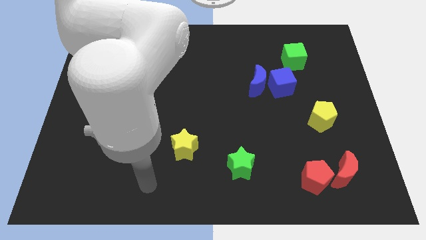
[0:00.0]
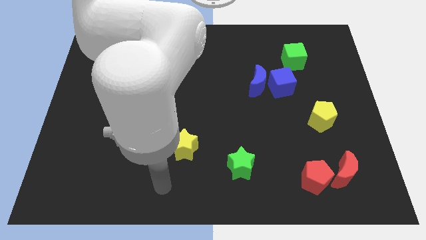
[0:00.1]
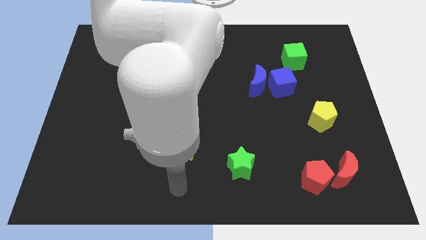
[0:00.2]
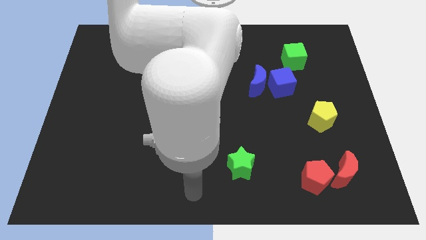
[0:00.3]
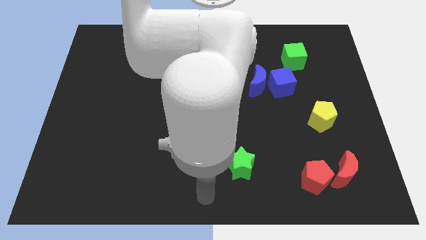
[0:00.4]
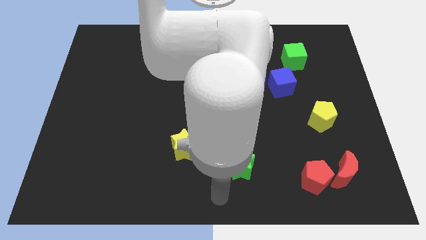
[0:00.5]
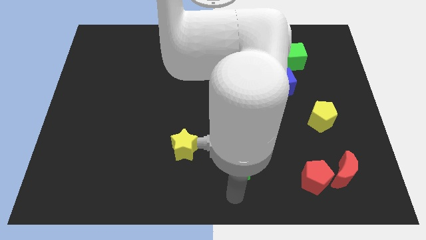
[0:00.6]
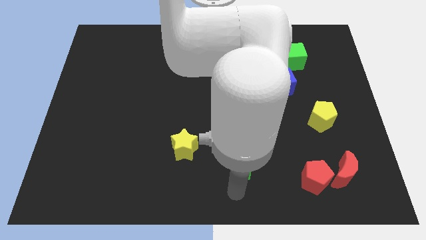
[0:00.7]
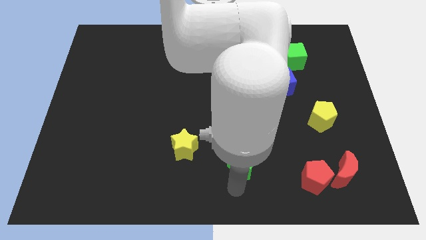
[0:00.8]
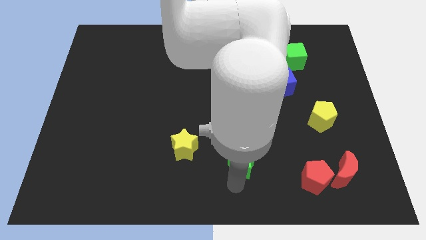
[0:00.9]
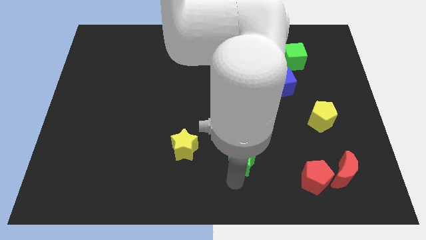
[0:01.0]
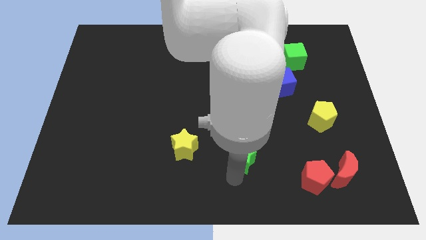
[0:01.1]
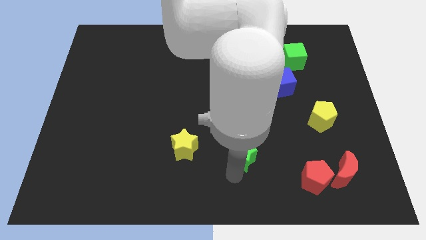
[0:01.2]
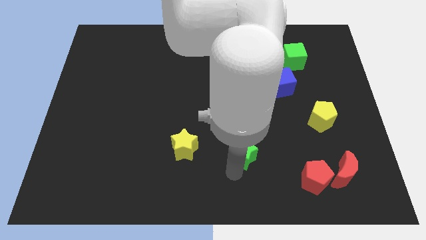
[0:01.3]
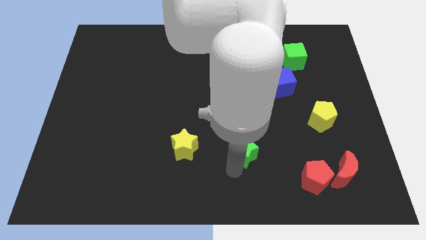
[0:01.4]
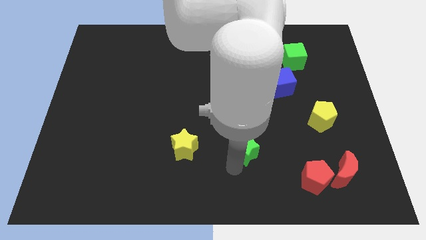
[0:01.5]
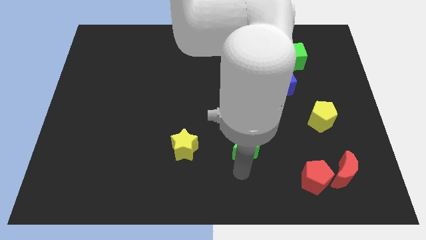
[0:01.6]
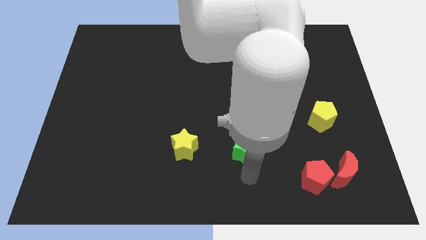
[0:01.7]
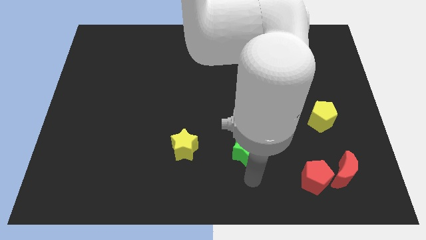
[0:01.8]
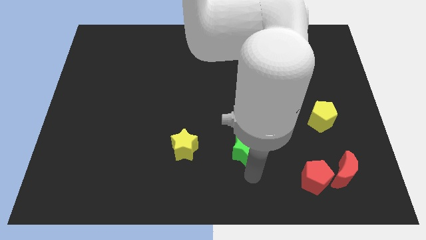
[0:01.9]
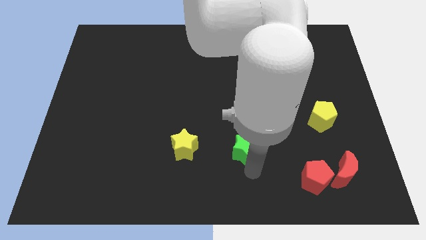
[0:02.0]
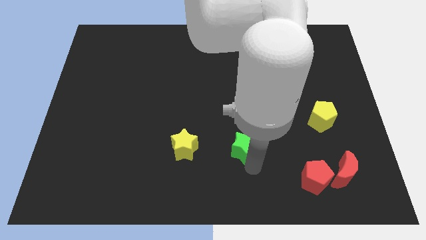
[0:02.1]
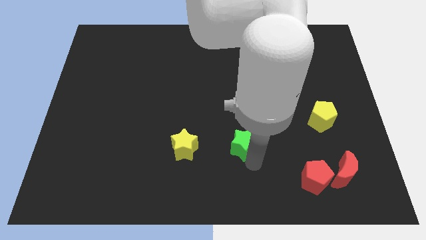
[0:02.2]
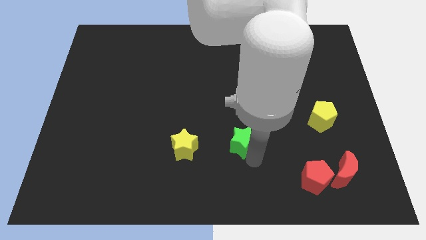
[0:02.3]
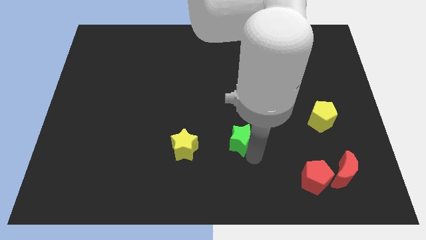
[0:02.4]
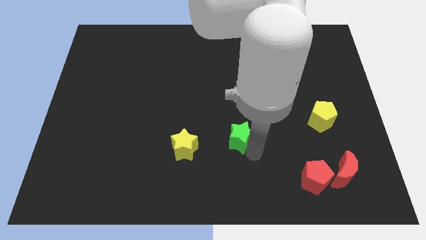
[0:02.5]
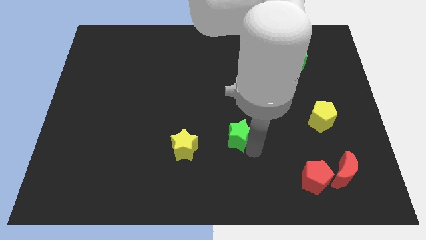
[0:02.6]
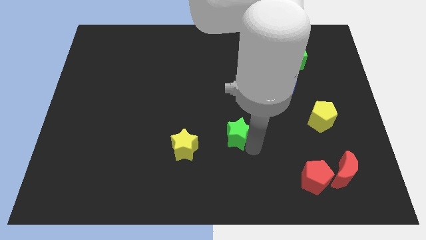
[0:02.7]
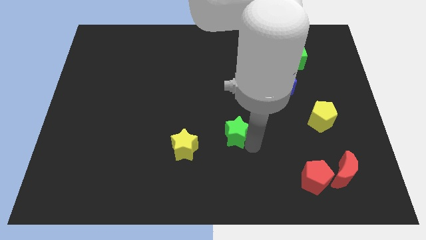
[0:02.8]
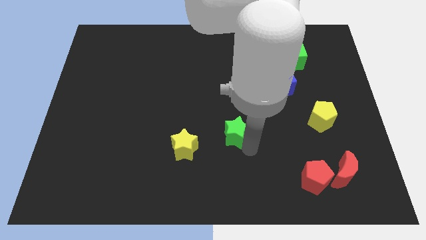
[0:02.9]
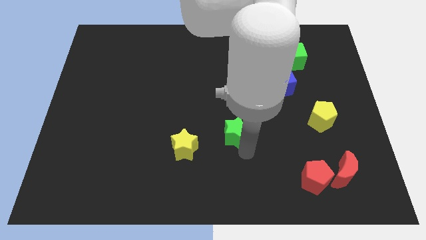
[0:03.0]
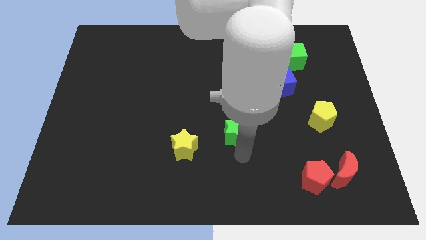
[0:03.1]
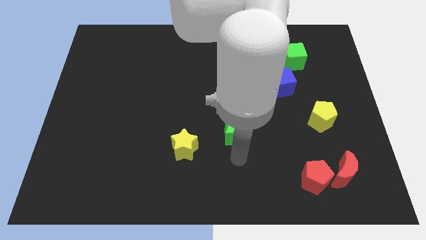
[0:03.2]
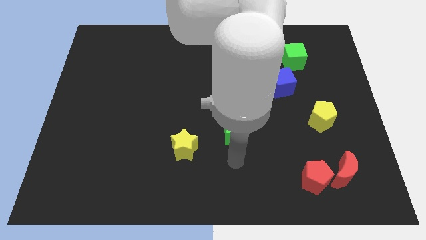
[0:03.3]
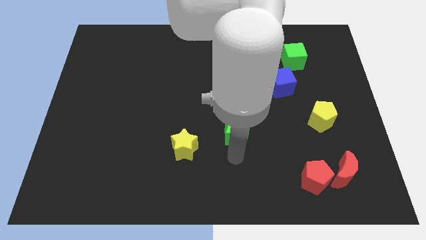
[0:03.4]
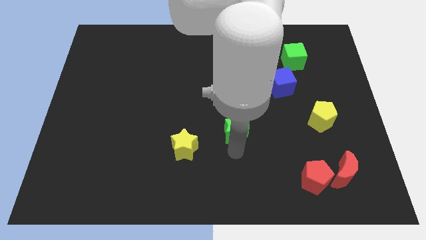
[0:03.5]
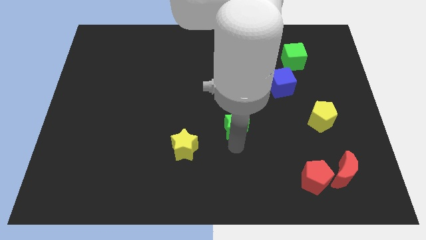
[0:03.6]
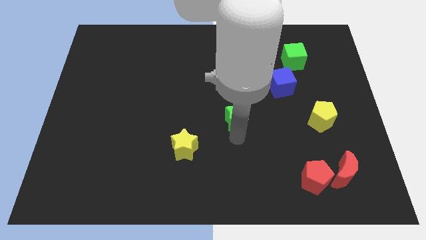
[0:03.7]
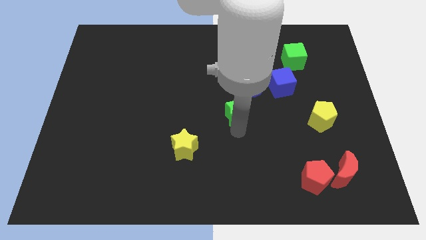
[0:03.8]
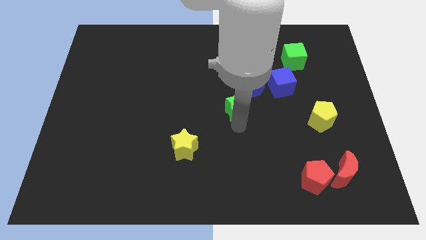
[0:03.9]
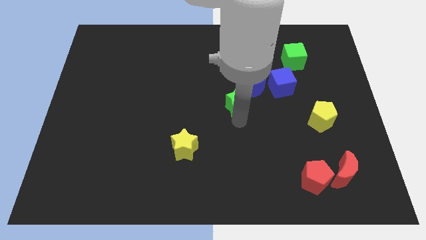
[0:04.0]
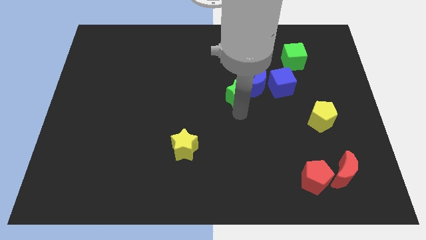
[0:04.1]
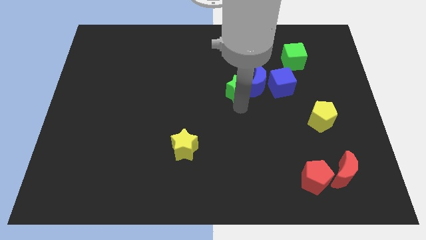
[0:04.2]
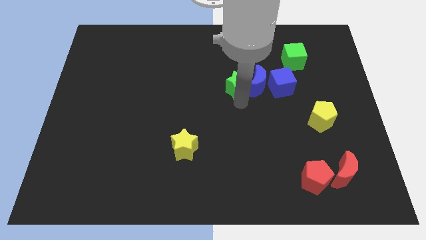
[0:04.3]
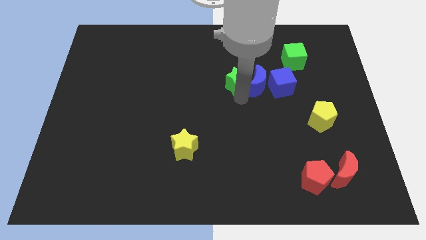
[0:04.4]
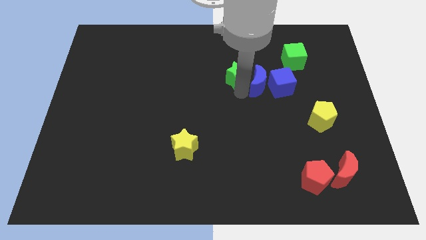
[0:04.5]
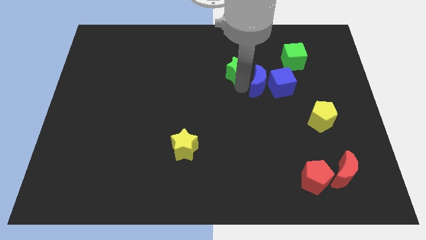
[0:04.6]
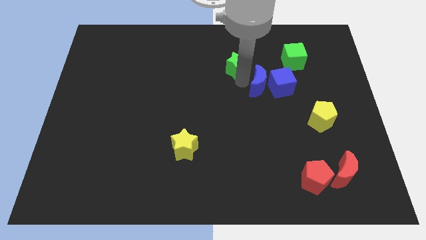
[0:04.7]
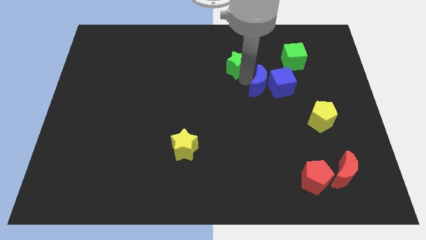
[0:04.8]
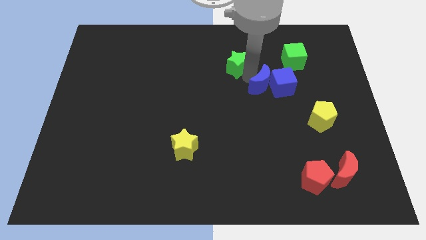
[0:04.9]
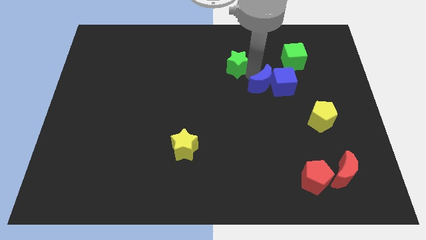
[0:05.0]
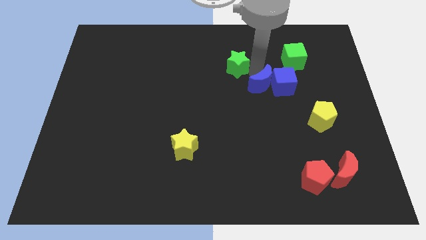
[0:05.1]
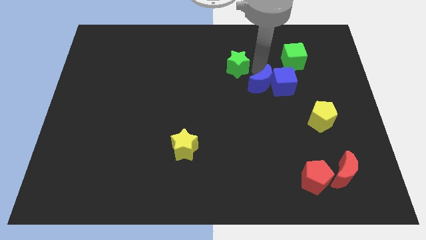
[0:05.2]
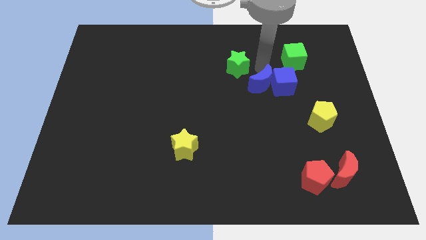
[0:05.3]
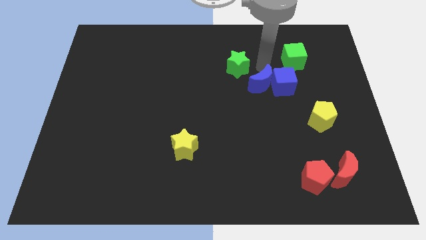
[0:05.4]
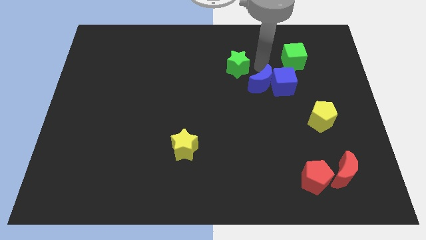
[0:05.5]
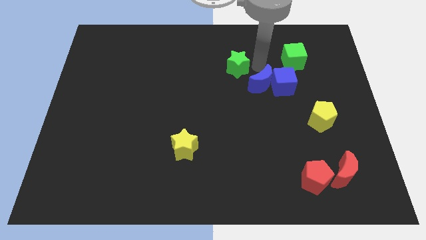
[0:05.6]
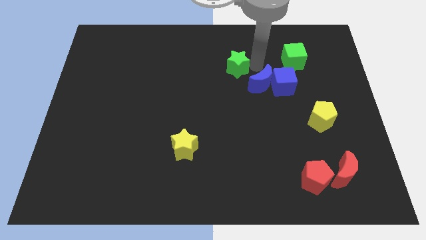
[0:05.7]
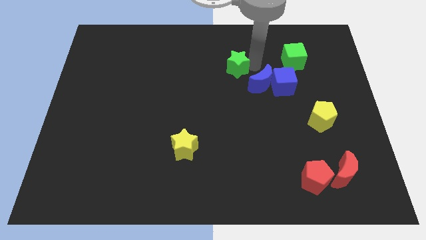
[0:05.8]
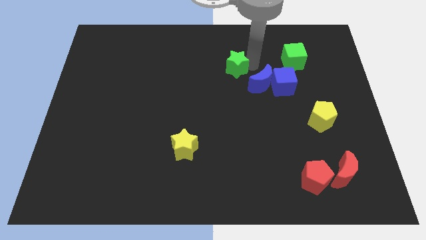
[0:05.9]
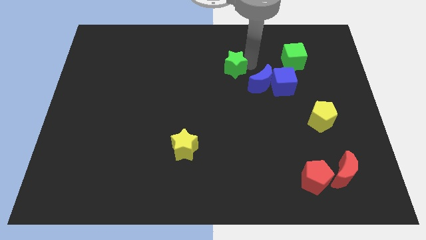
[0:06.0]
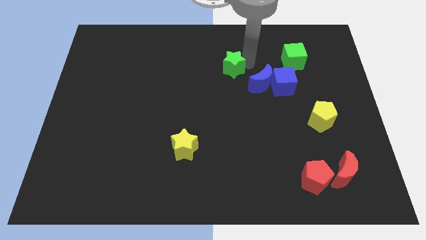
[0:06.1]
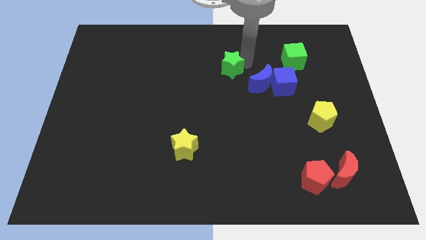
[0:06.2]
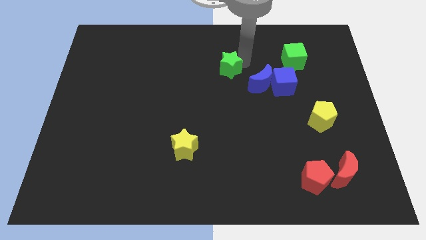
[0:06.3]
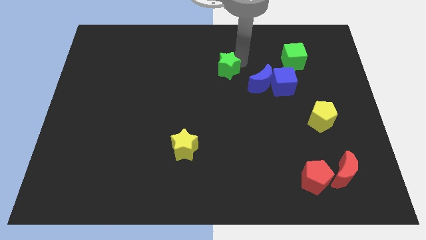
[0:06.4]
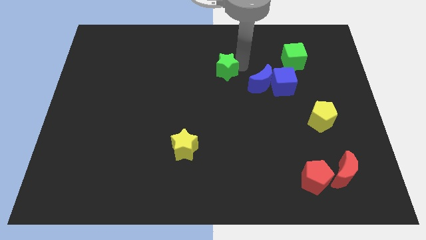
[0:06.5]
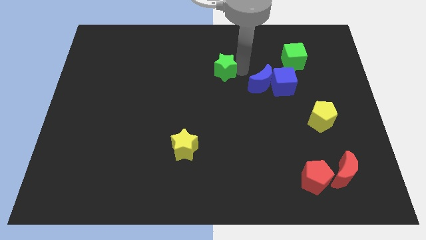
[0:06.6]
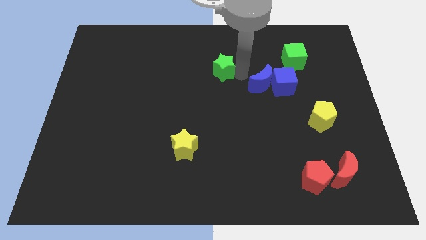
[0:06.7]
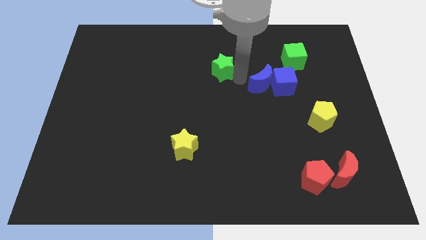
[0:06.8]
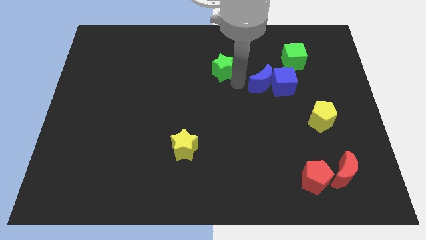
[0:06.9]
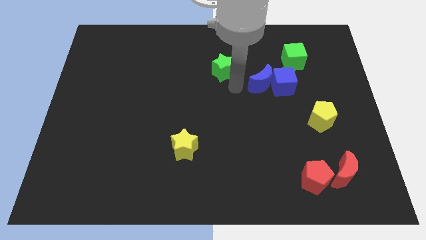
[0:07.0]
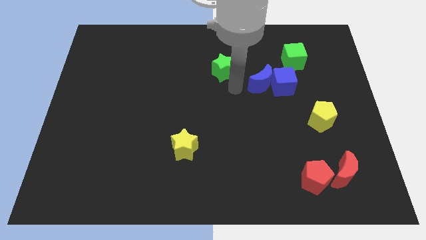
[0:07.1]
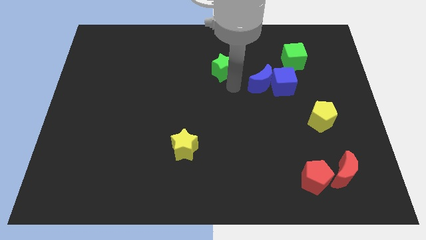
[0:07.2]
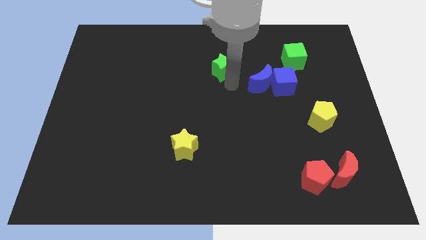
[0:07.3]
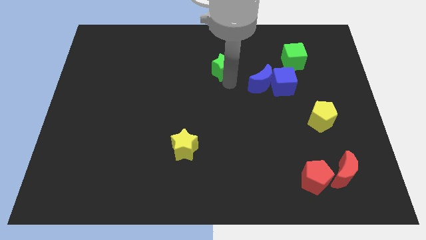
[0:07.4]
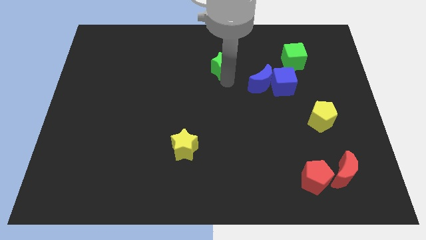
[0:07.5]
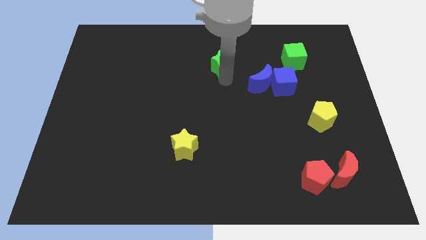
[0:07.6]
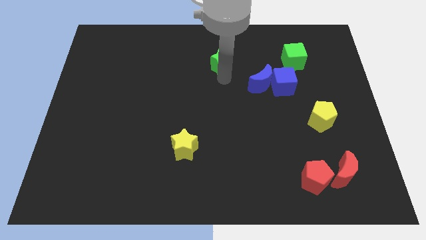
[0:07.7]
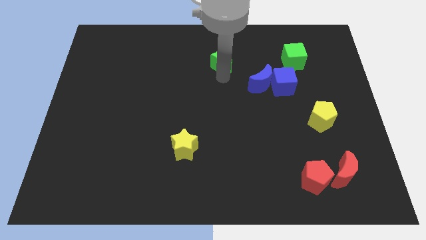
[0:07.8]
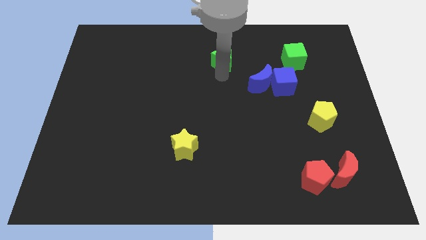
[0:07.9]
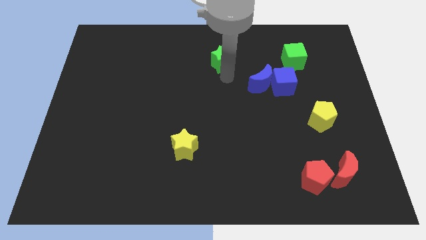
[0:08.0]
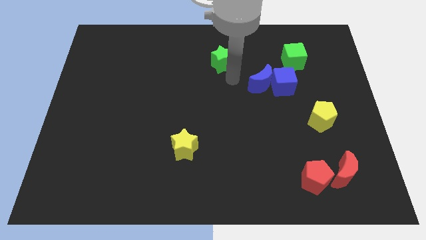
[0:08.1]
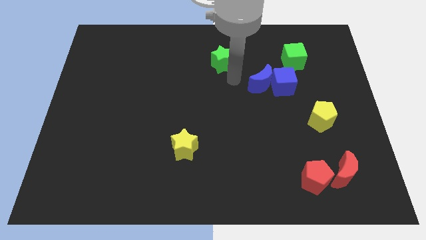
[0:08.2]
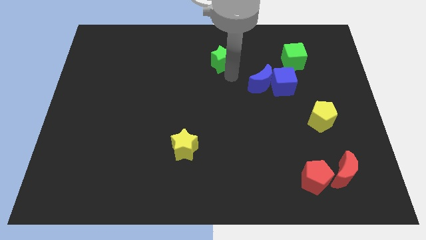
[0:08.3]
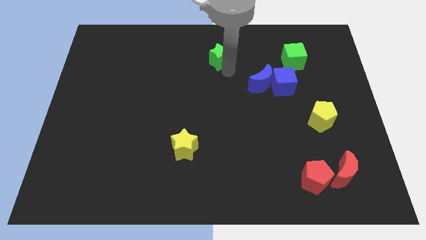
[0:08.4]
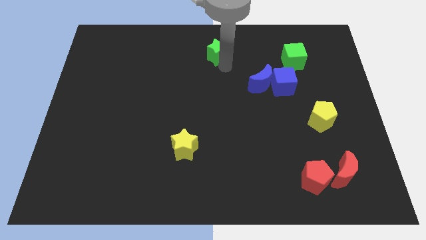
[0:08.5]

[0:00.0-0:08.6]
move the green star to the top
